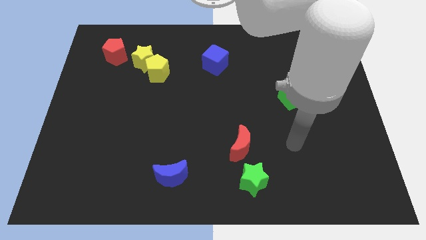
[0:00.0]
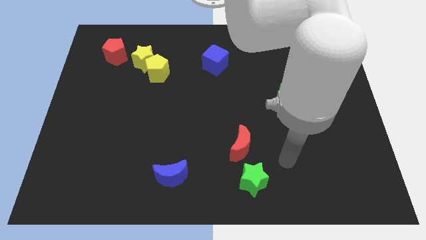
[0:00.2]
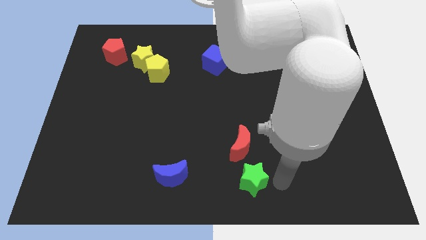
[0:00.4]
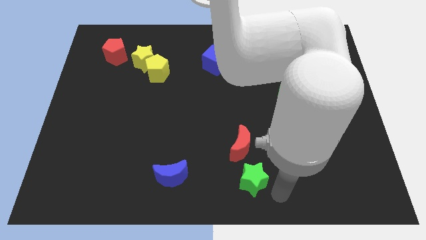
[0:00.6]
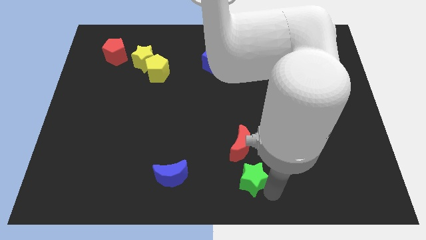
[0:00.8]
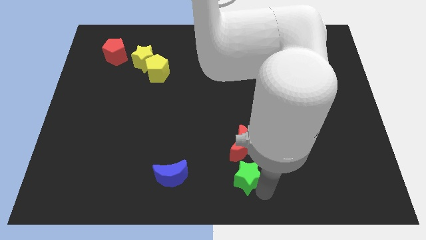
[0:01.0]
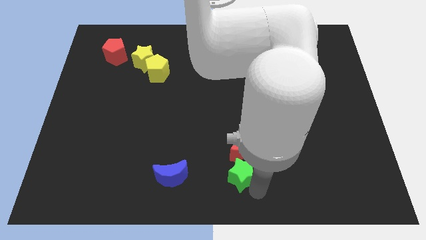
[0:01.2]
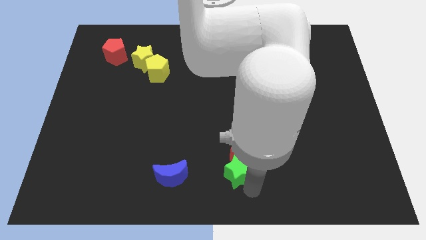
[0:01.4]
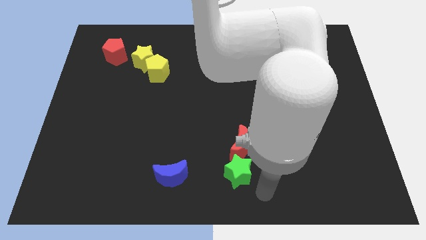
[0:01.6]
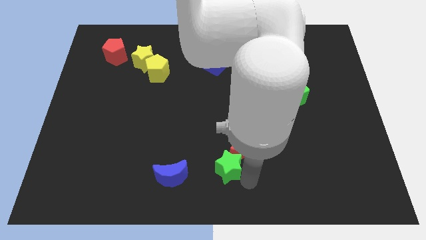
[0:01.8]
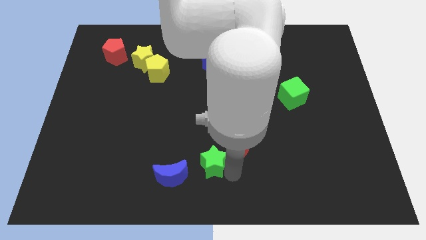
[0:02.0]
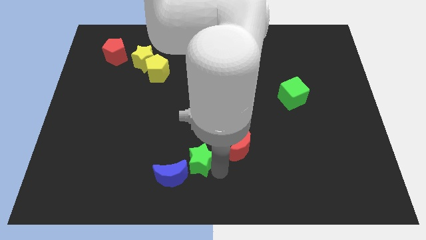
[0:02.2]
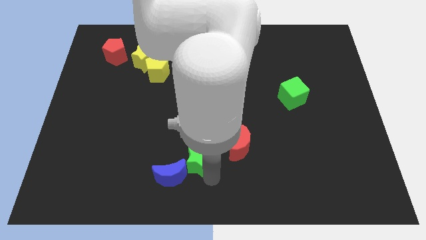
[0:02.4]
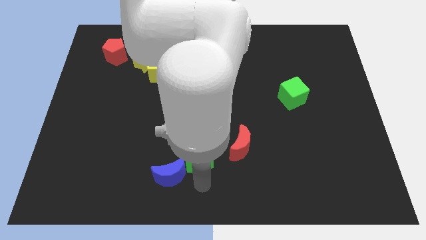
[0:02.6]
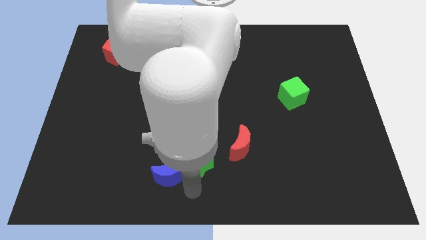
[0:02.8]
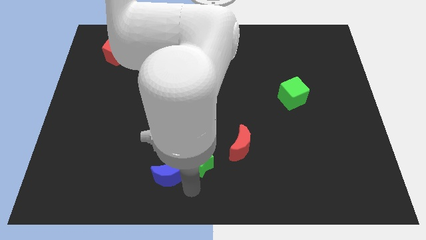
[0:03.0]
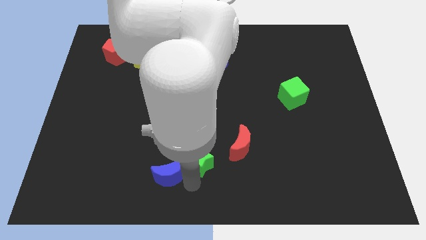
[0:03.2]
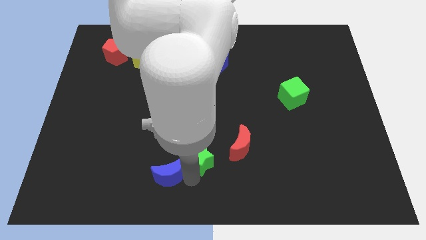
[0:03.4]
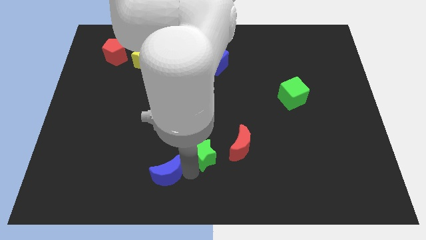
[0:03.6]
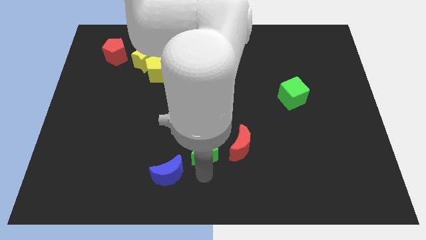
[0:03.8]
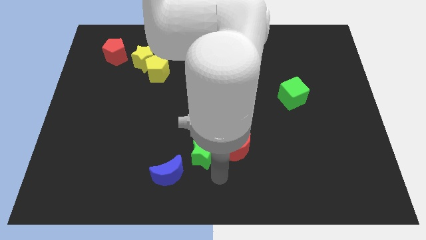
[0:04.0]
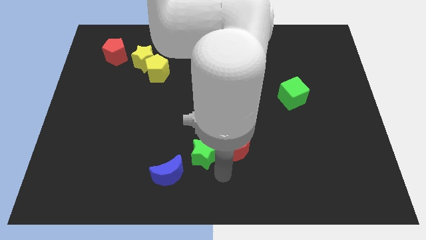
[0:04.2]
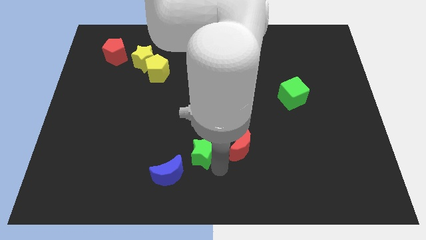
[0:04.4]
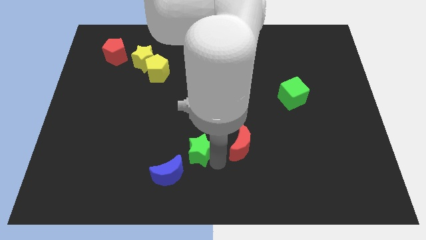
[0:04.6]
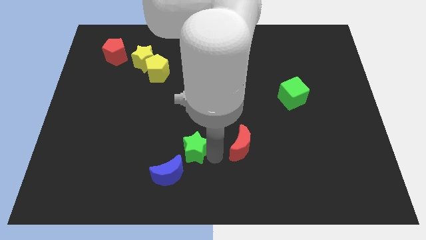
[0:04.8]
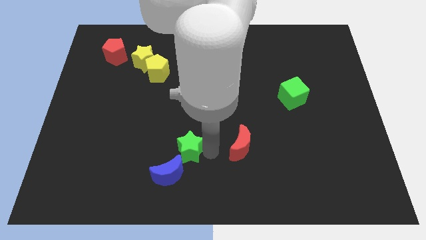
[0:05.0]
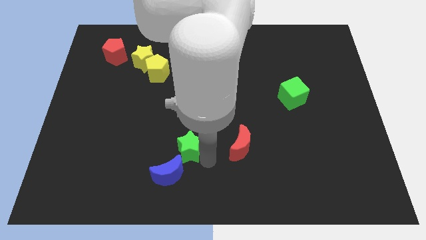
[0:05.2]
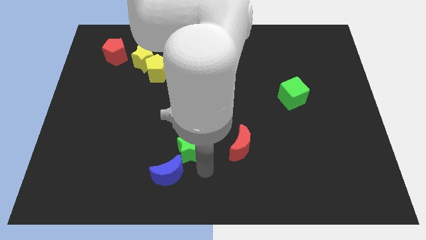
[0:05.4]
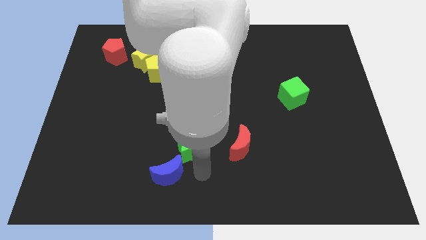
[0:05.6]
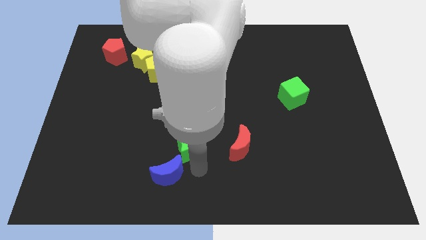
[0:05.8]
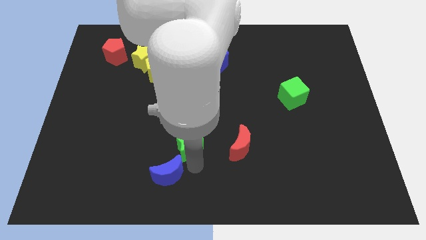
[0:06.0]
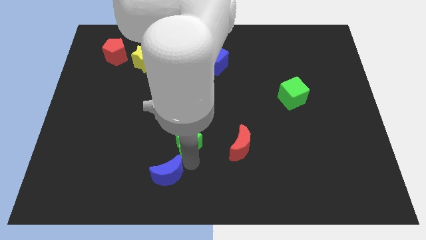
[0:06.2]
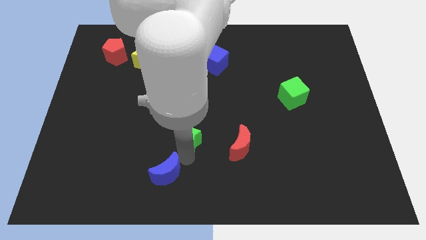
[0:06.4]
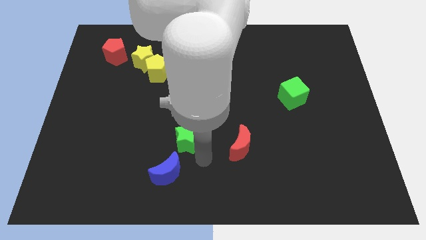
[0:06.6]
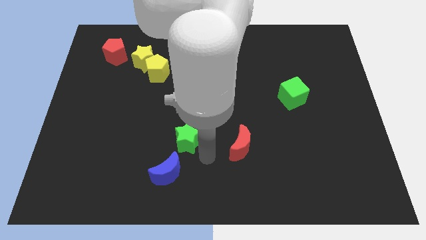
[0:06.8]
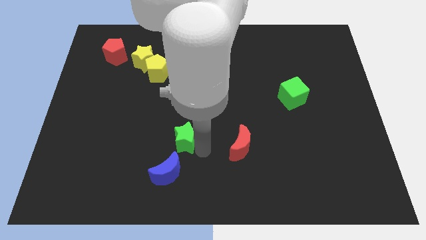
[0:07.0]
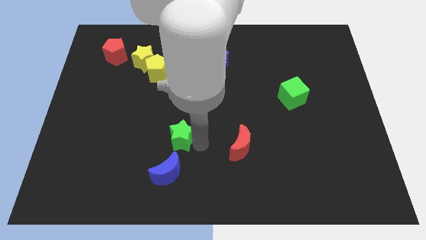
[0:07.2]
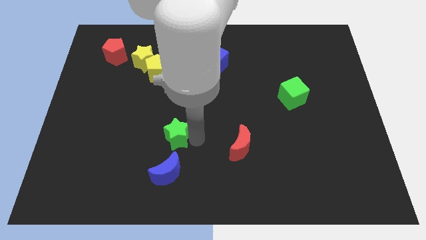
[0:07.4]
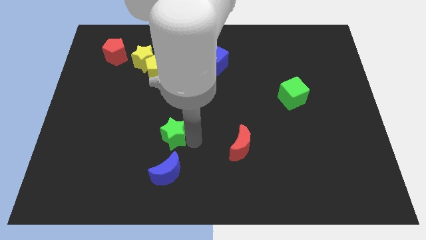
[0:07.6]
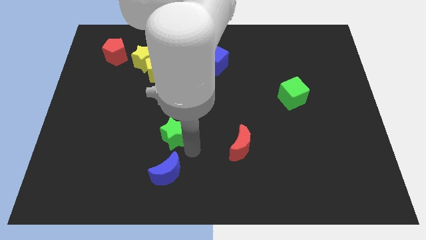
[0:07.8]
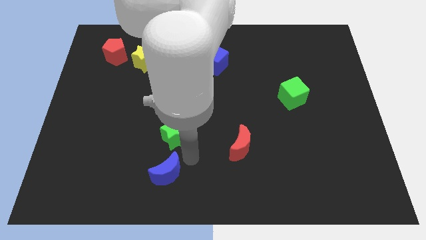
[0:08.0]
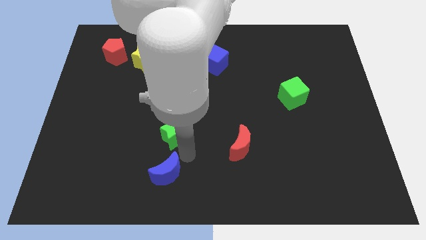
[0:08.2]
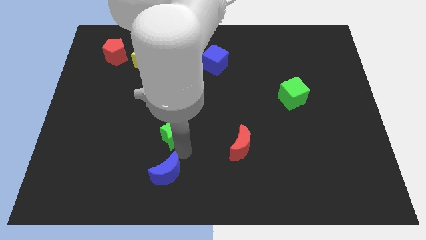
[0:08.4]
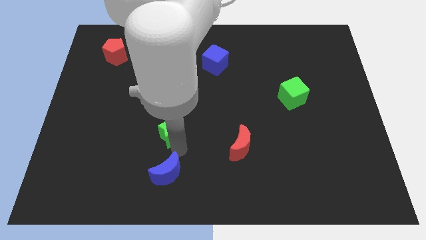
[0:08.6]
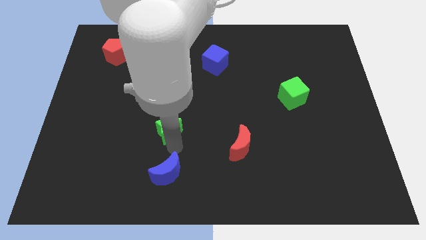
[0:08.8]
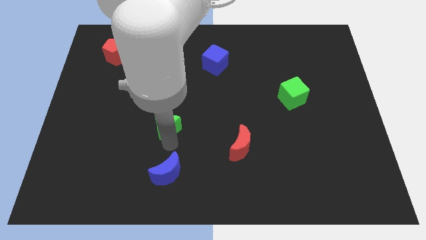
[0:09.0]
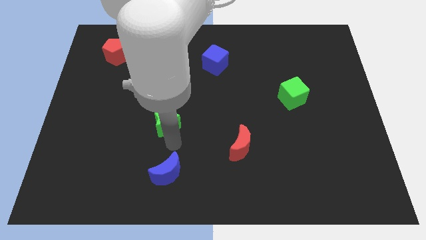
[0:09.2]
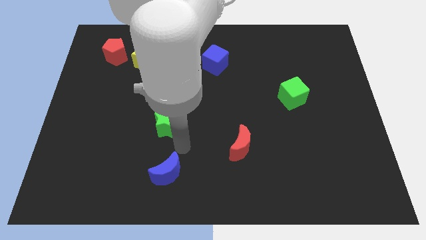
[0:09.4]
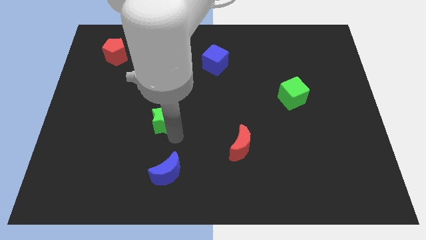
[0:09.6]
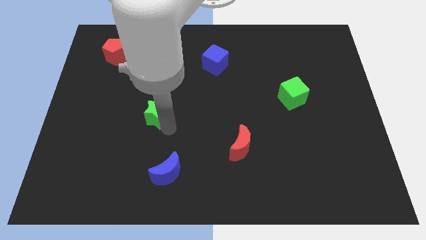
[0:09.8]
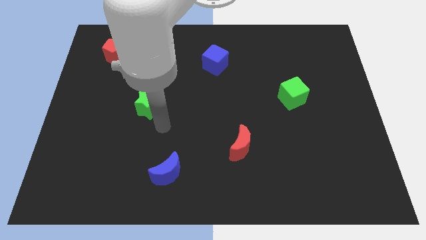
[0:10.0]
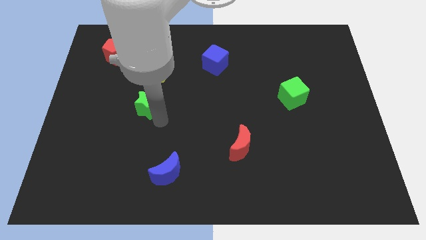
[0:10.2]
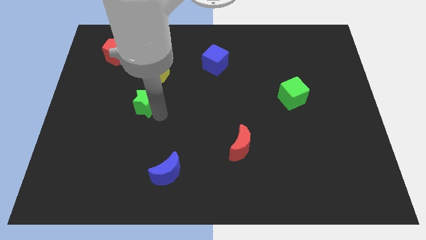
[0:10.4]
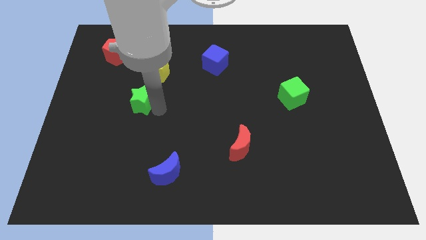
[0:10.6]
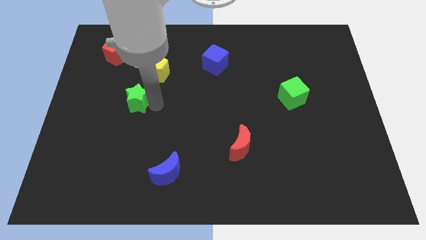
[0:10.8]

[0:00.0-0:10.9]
move the green star to the bottom left side of the yellow pentagon

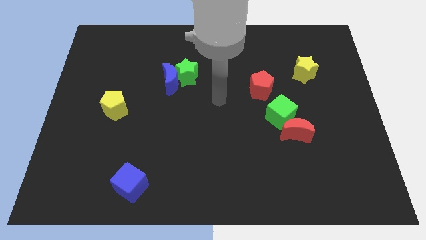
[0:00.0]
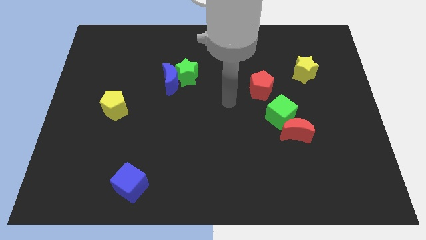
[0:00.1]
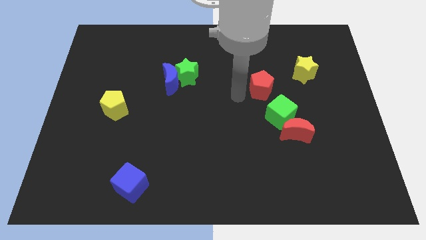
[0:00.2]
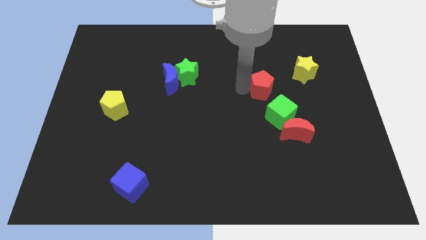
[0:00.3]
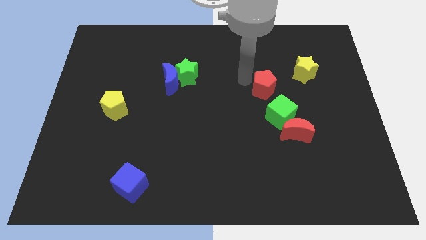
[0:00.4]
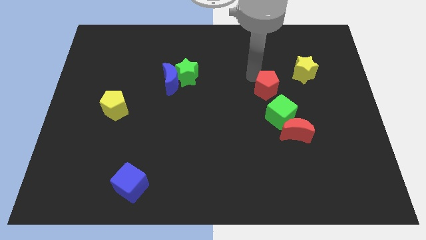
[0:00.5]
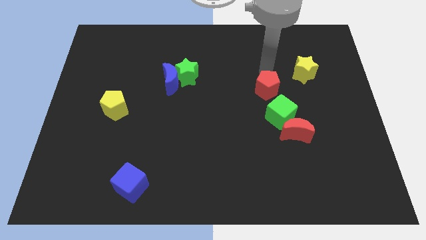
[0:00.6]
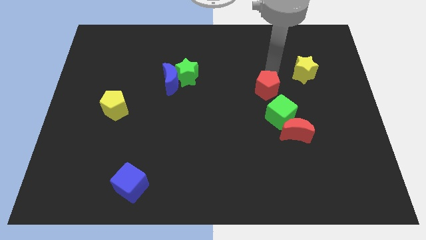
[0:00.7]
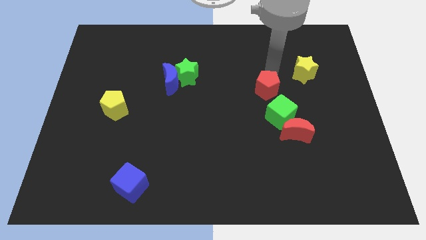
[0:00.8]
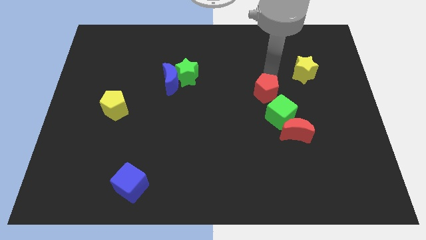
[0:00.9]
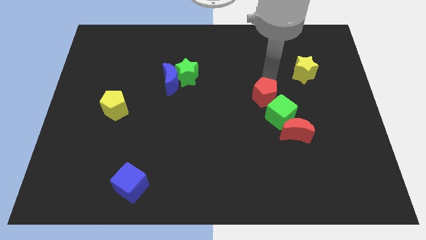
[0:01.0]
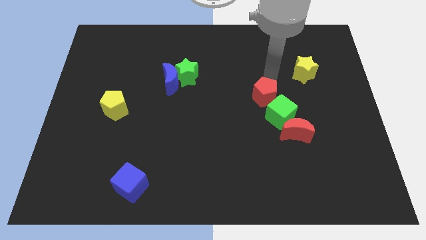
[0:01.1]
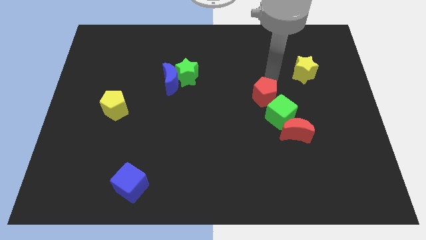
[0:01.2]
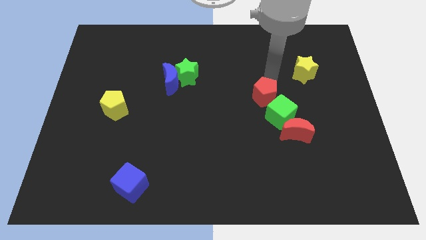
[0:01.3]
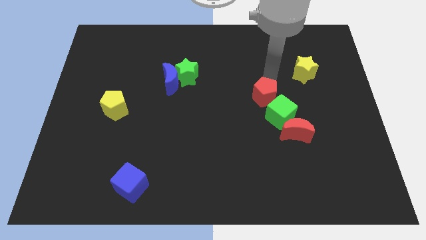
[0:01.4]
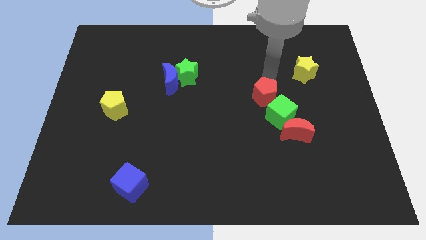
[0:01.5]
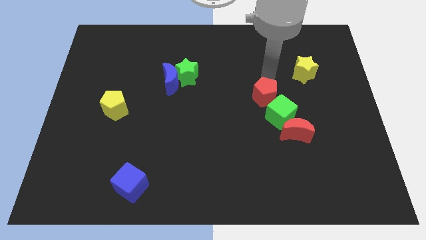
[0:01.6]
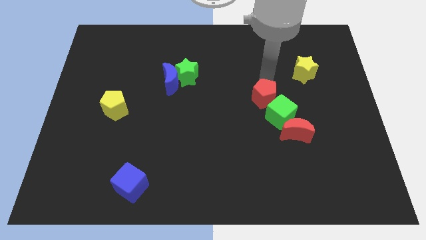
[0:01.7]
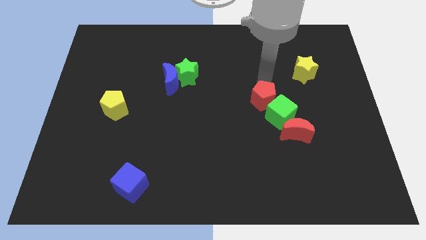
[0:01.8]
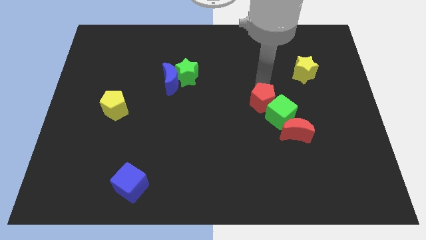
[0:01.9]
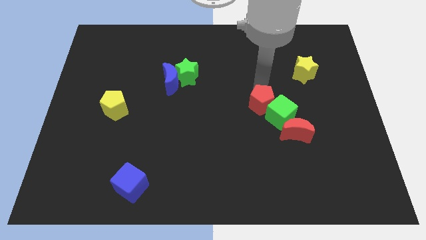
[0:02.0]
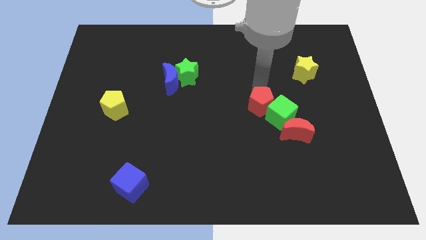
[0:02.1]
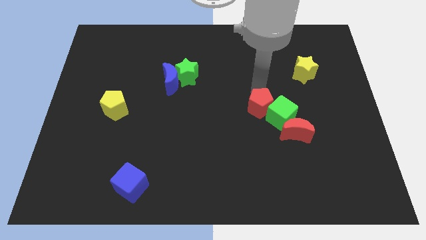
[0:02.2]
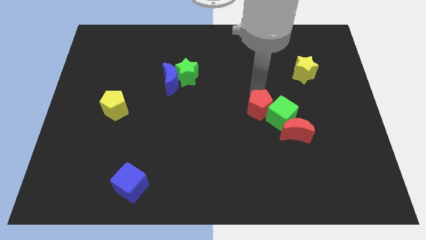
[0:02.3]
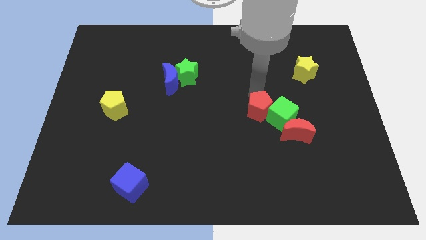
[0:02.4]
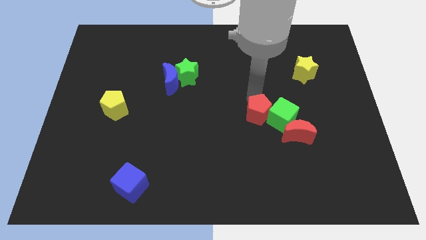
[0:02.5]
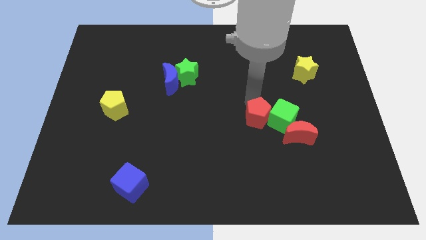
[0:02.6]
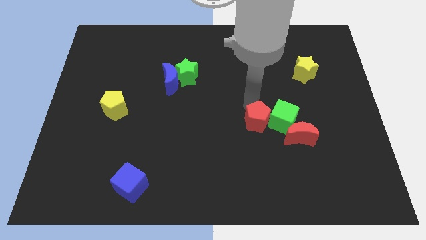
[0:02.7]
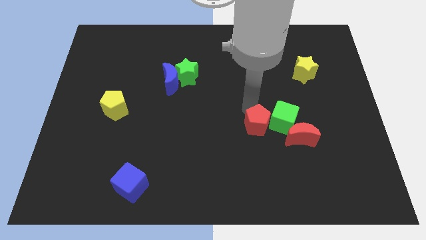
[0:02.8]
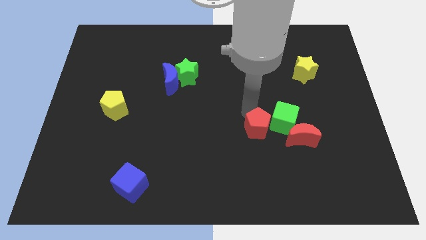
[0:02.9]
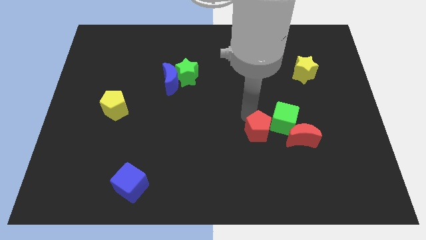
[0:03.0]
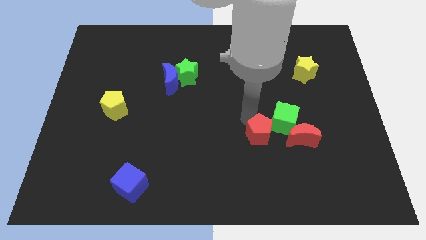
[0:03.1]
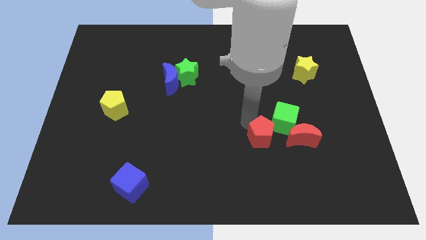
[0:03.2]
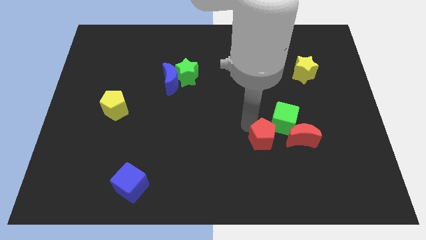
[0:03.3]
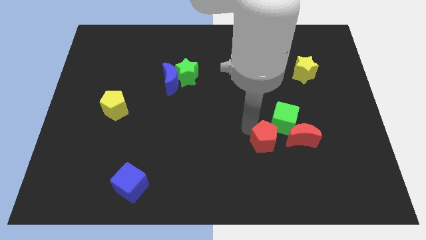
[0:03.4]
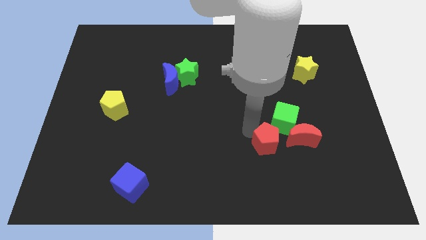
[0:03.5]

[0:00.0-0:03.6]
push the red pentagon to the bottom left of the red moon
